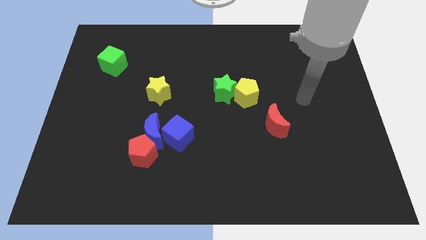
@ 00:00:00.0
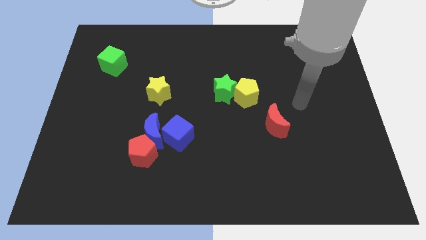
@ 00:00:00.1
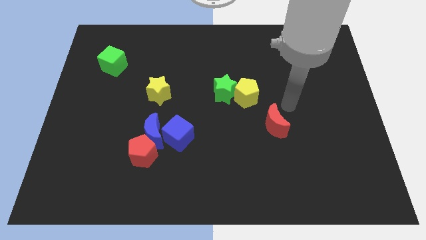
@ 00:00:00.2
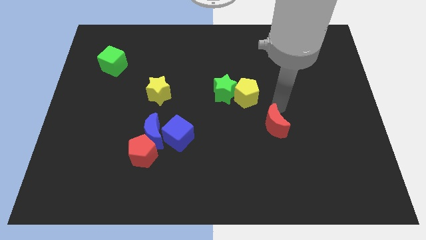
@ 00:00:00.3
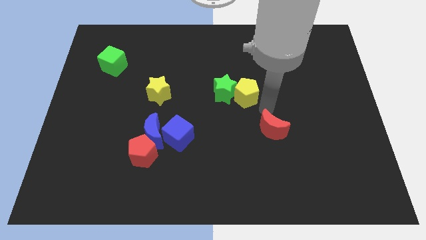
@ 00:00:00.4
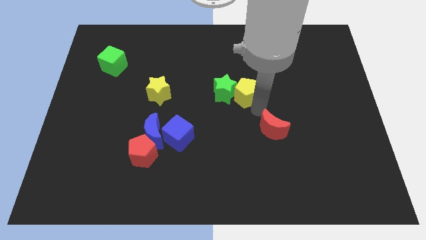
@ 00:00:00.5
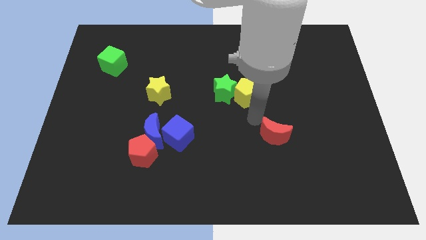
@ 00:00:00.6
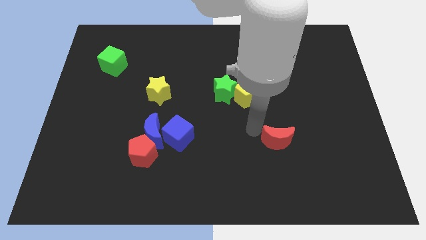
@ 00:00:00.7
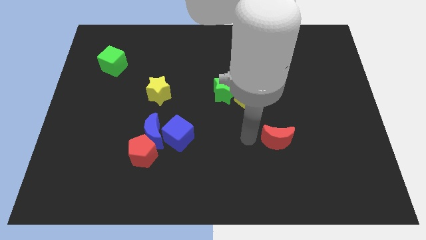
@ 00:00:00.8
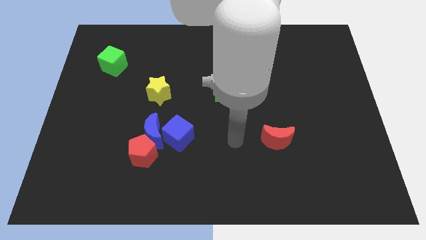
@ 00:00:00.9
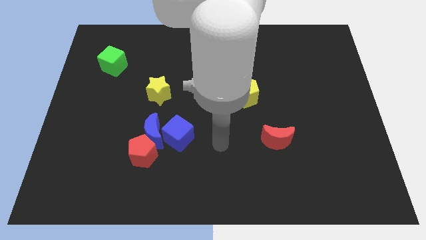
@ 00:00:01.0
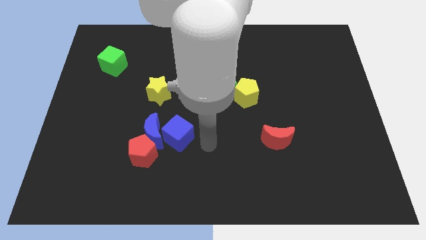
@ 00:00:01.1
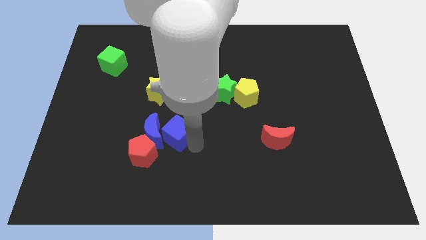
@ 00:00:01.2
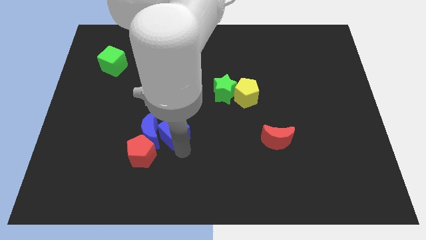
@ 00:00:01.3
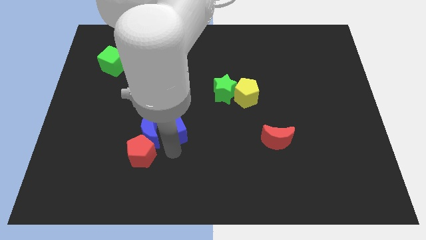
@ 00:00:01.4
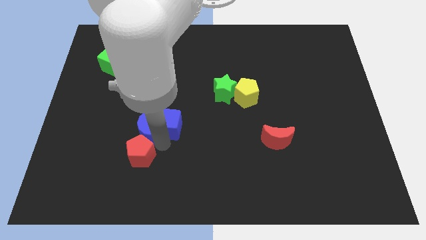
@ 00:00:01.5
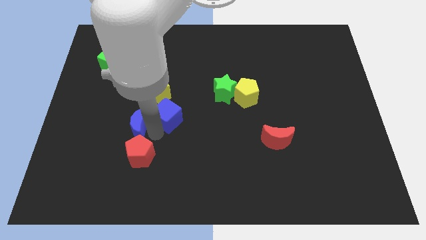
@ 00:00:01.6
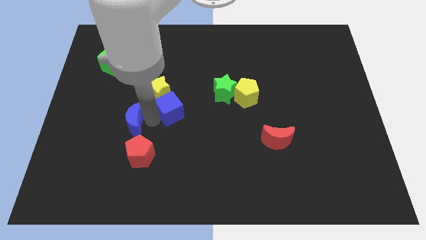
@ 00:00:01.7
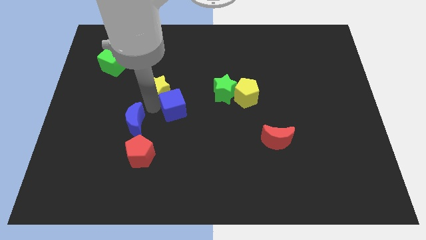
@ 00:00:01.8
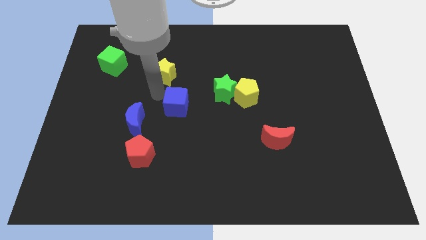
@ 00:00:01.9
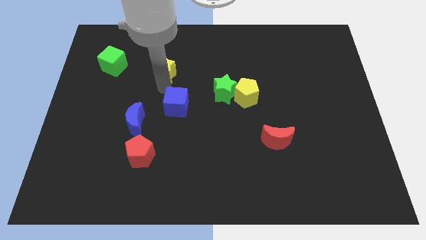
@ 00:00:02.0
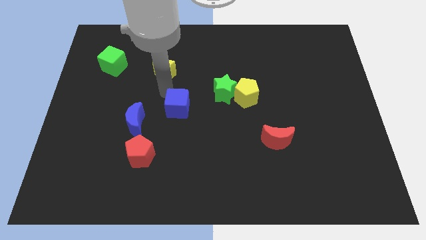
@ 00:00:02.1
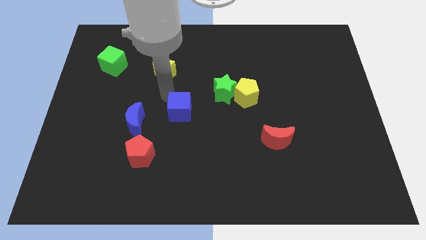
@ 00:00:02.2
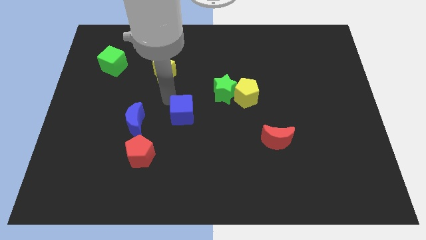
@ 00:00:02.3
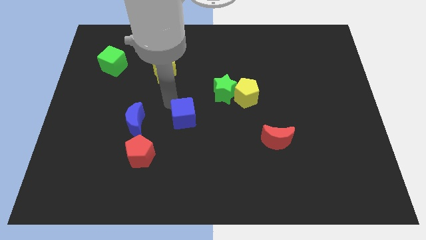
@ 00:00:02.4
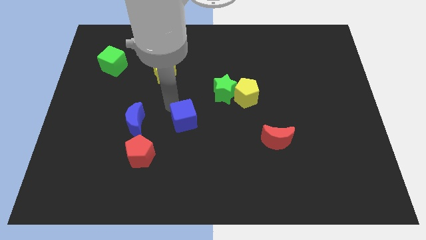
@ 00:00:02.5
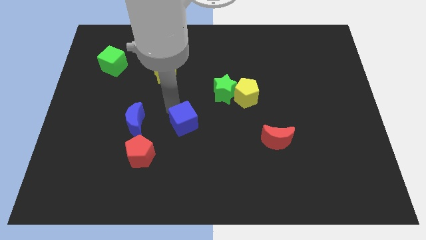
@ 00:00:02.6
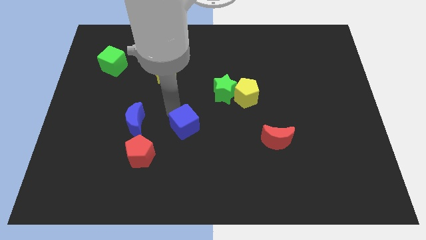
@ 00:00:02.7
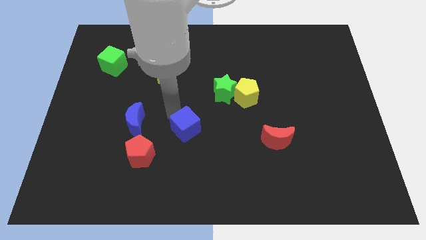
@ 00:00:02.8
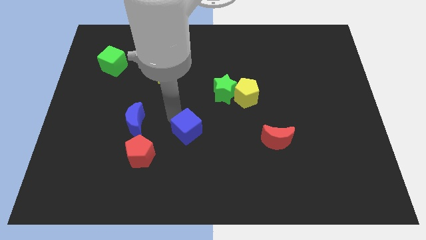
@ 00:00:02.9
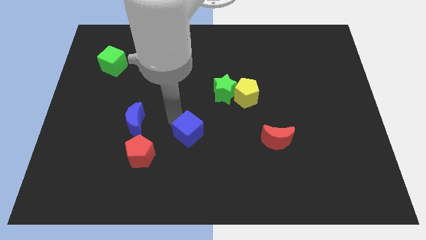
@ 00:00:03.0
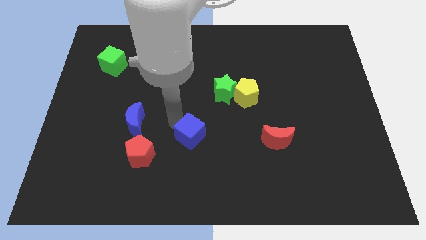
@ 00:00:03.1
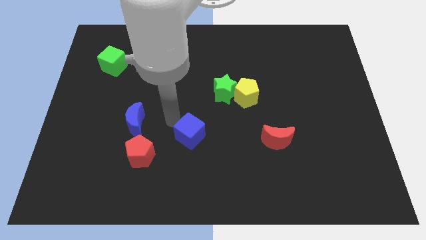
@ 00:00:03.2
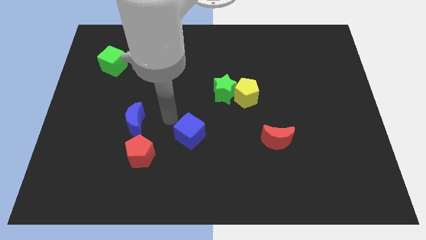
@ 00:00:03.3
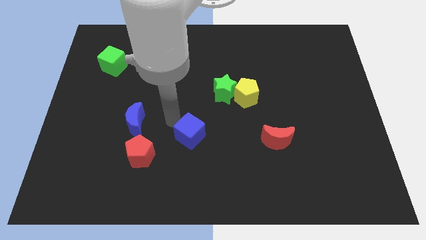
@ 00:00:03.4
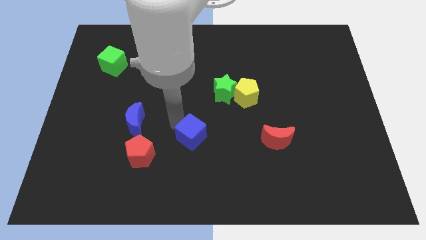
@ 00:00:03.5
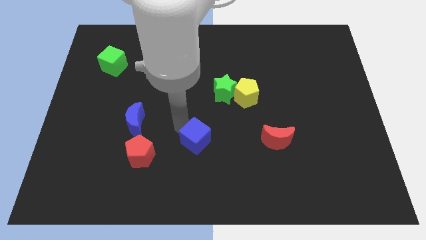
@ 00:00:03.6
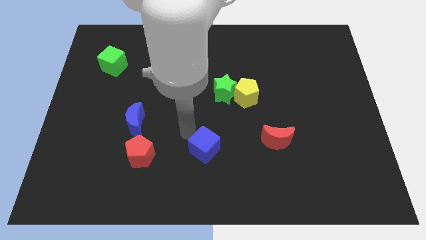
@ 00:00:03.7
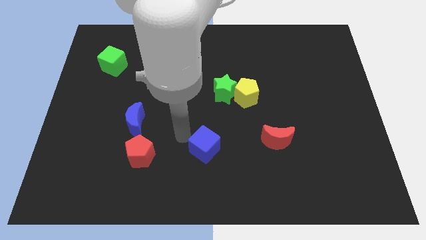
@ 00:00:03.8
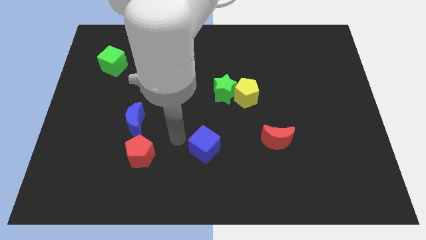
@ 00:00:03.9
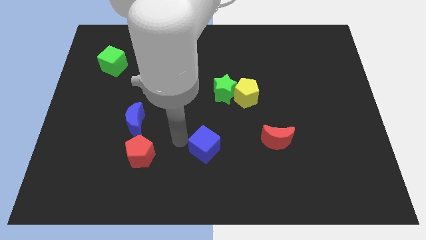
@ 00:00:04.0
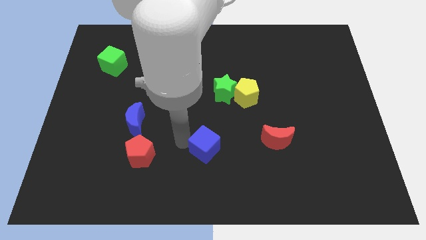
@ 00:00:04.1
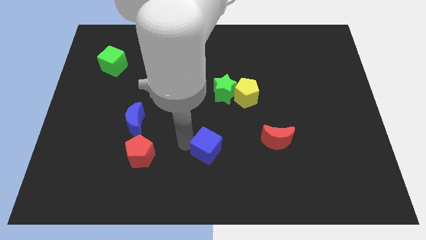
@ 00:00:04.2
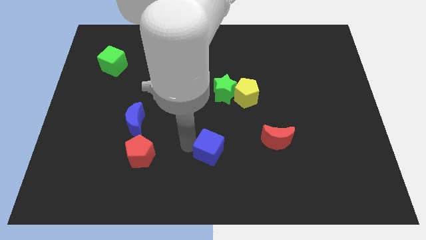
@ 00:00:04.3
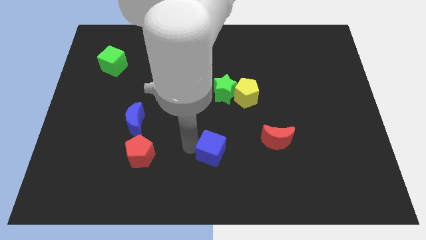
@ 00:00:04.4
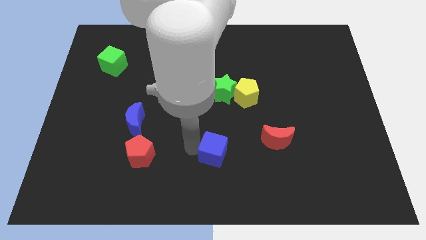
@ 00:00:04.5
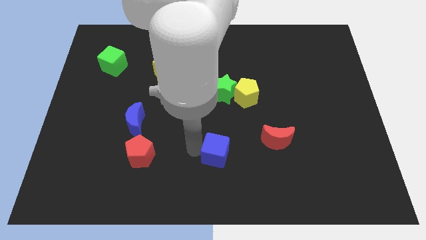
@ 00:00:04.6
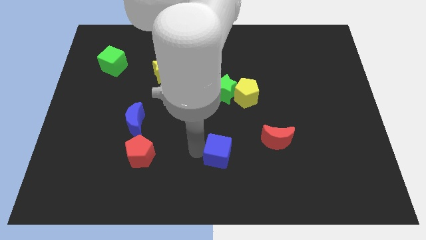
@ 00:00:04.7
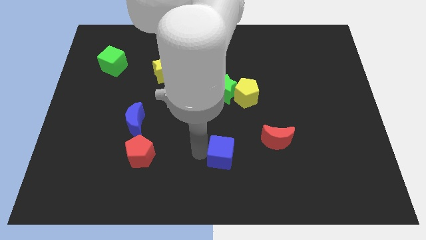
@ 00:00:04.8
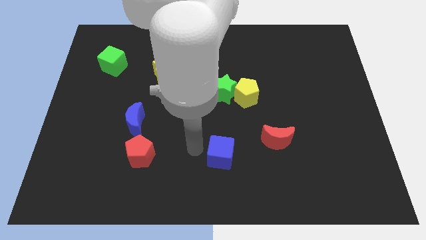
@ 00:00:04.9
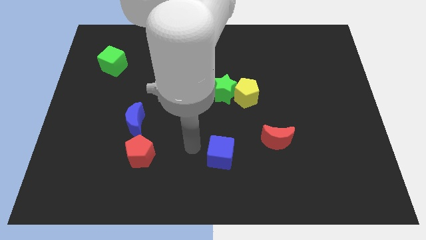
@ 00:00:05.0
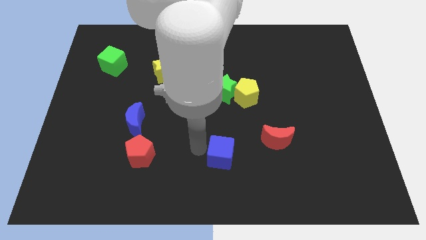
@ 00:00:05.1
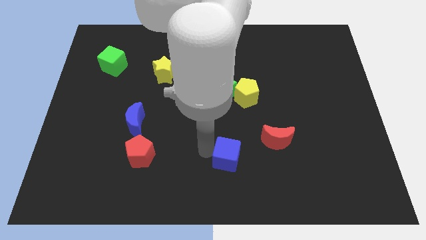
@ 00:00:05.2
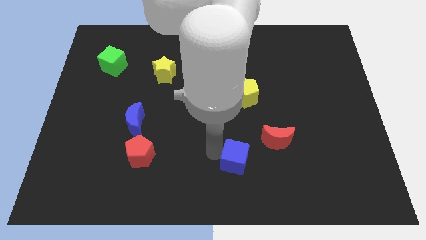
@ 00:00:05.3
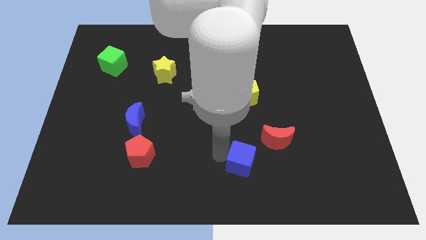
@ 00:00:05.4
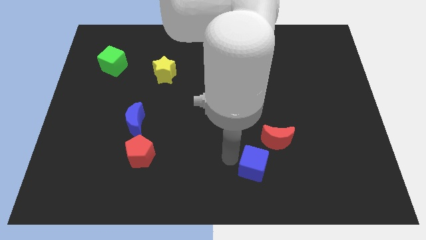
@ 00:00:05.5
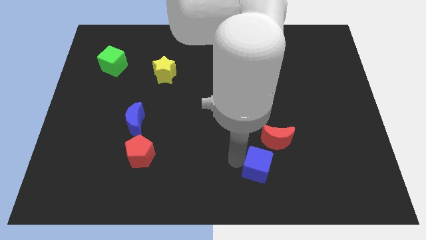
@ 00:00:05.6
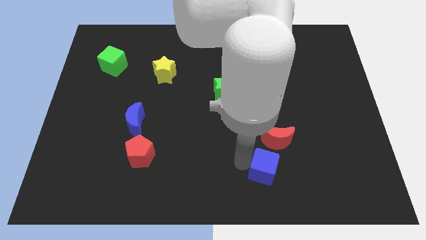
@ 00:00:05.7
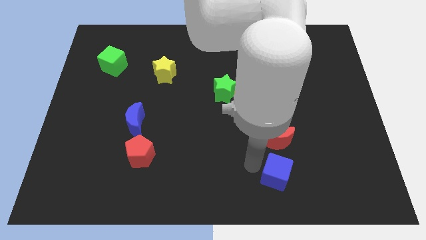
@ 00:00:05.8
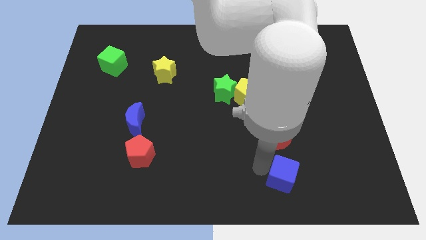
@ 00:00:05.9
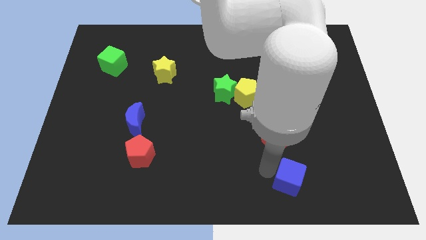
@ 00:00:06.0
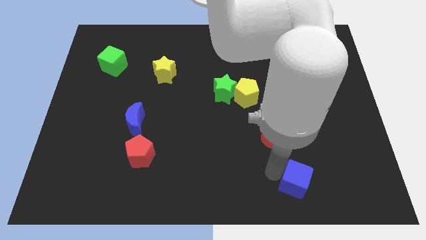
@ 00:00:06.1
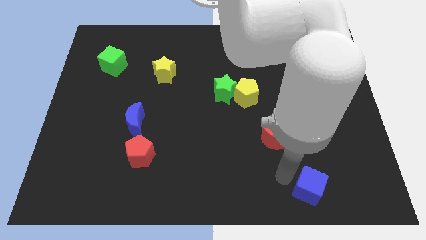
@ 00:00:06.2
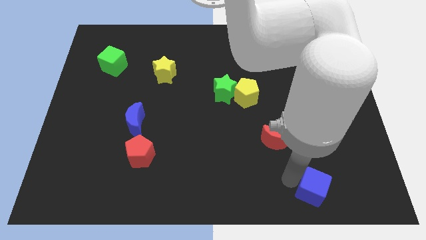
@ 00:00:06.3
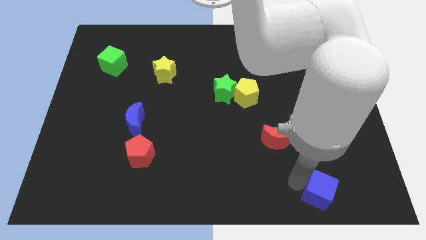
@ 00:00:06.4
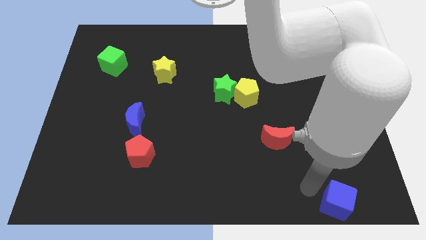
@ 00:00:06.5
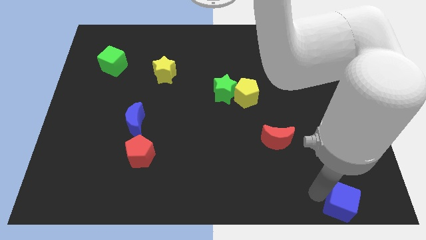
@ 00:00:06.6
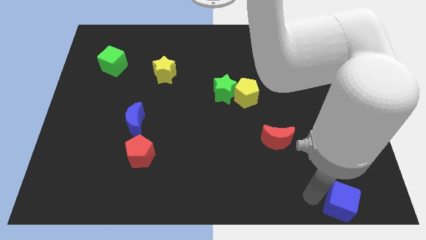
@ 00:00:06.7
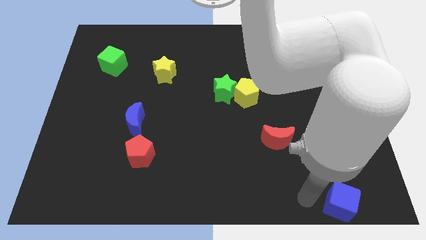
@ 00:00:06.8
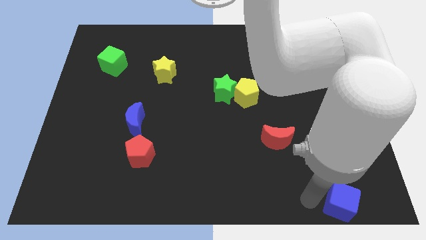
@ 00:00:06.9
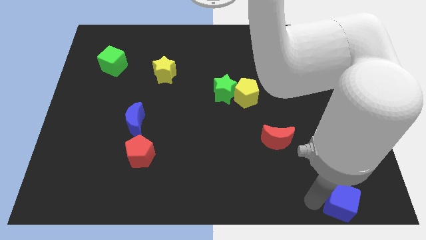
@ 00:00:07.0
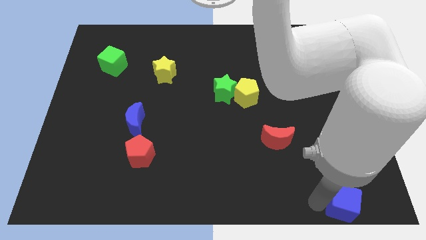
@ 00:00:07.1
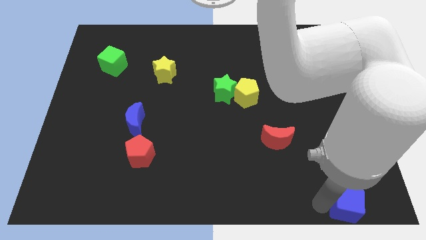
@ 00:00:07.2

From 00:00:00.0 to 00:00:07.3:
push the blue cube to the bottom right of the board

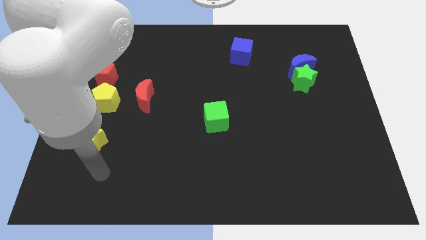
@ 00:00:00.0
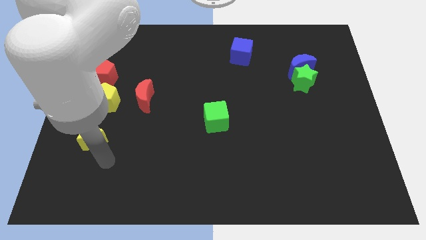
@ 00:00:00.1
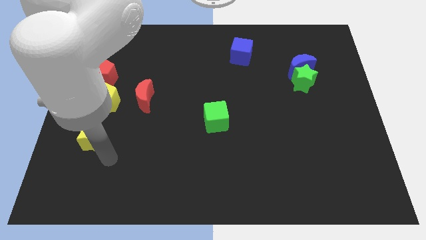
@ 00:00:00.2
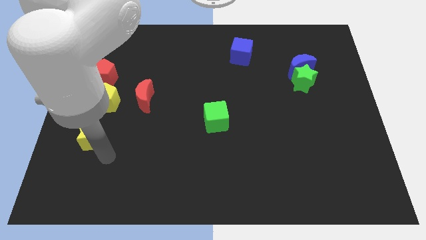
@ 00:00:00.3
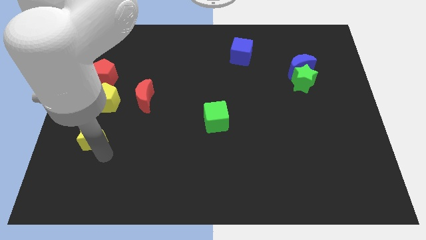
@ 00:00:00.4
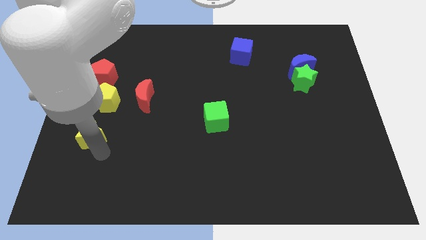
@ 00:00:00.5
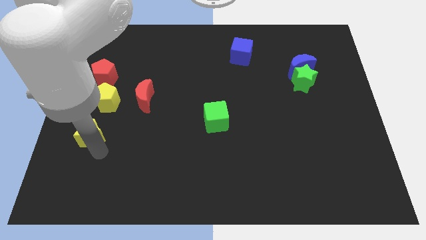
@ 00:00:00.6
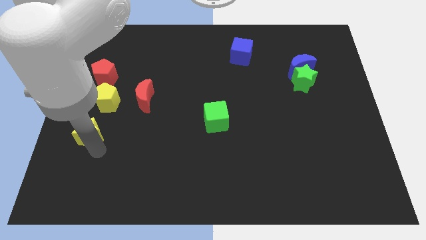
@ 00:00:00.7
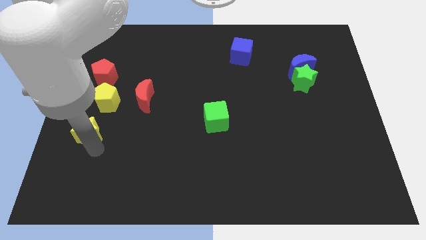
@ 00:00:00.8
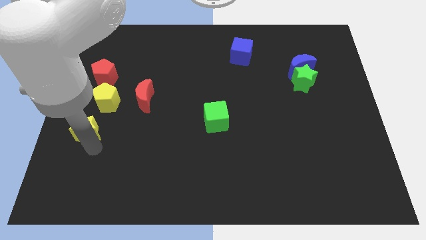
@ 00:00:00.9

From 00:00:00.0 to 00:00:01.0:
slide the yellow star to the center left
